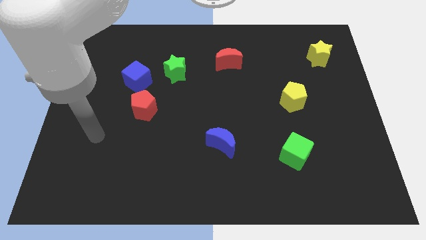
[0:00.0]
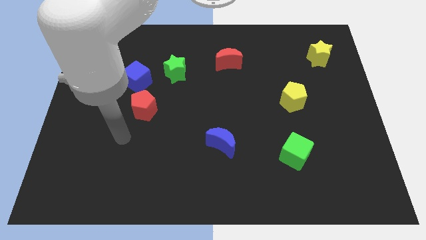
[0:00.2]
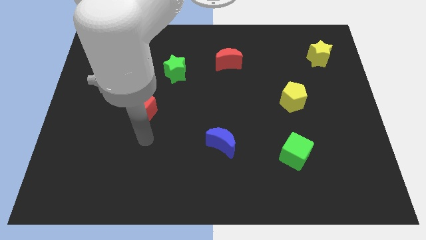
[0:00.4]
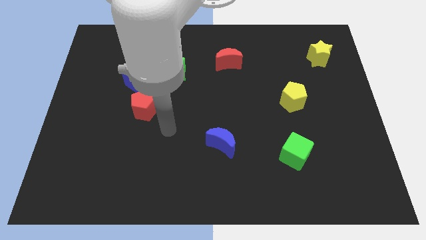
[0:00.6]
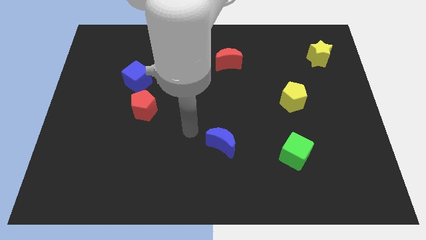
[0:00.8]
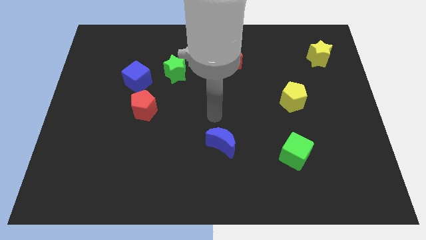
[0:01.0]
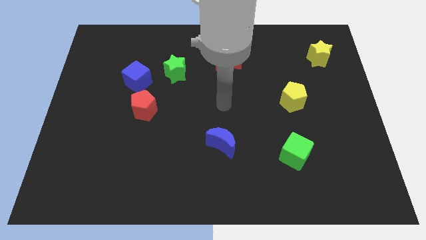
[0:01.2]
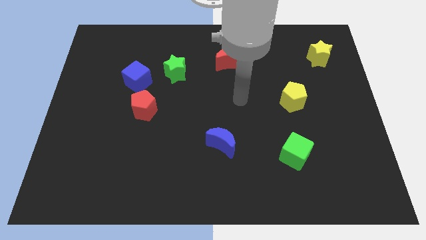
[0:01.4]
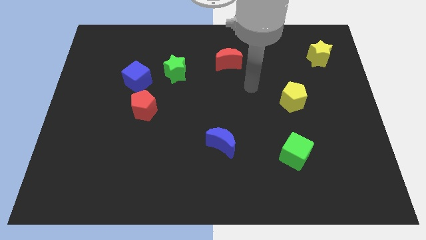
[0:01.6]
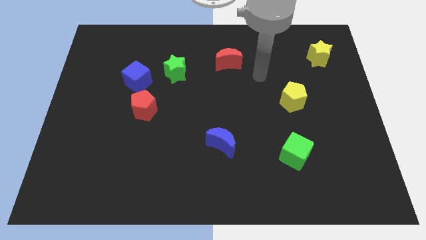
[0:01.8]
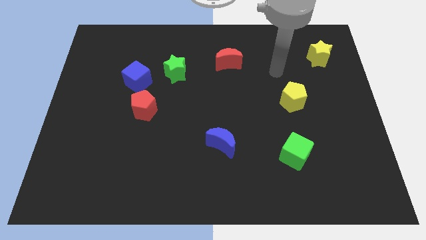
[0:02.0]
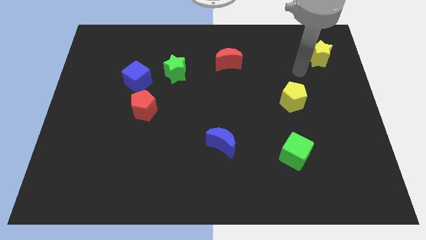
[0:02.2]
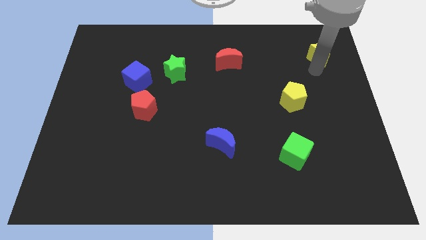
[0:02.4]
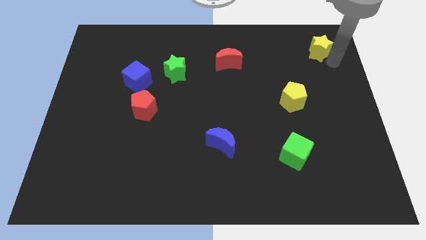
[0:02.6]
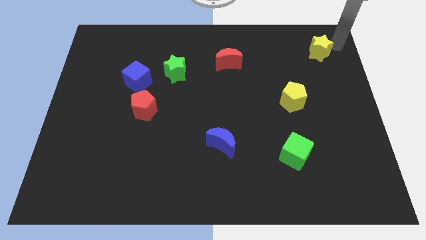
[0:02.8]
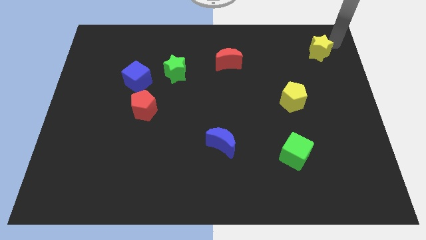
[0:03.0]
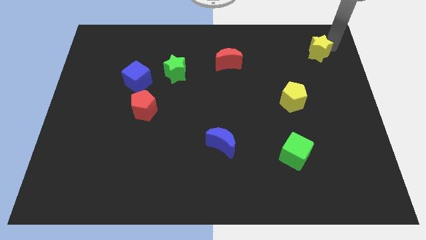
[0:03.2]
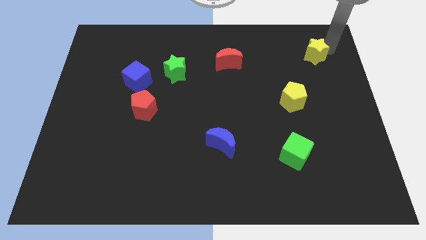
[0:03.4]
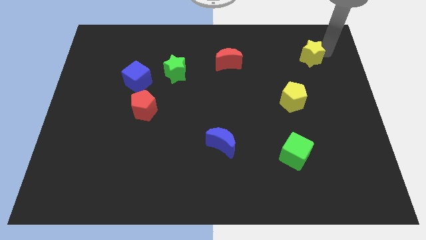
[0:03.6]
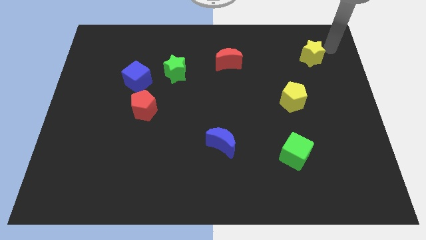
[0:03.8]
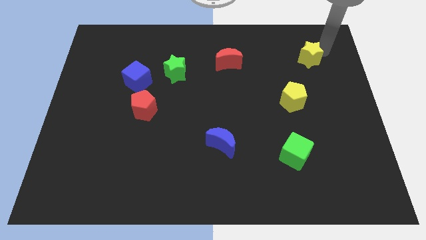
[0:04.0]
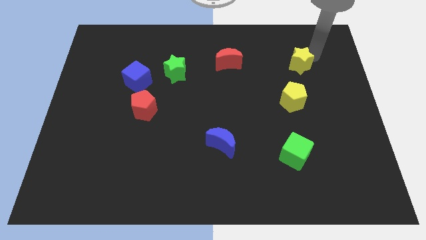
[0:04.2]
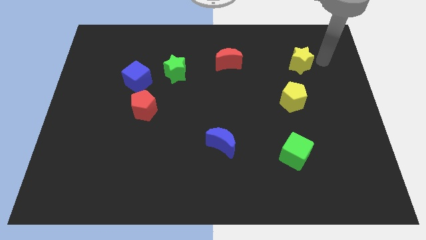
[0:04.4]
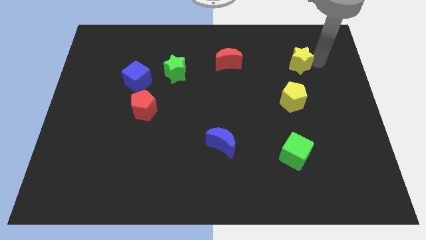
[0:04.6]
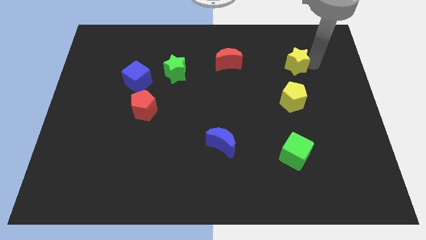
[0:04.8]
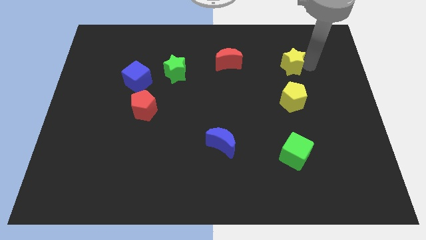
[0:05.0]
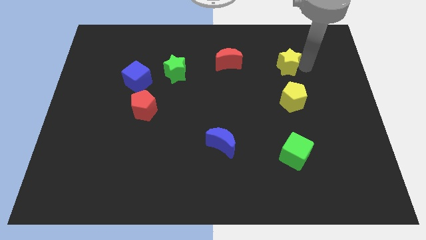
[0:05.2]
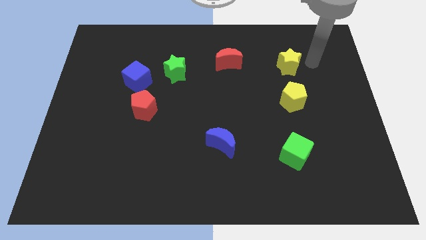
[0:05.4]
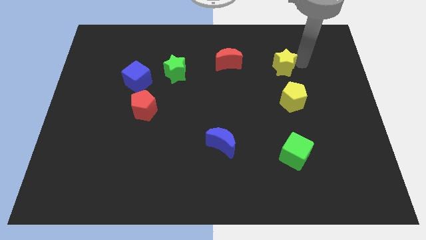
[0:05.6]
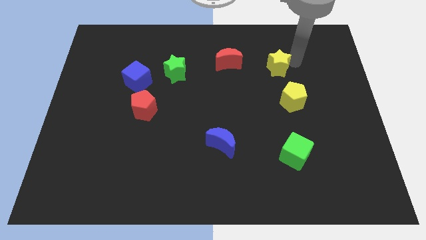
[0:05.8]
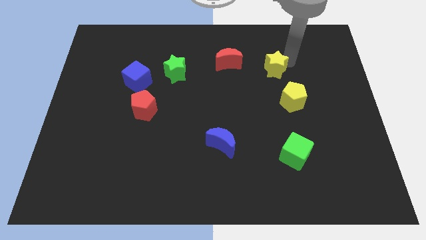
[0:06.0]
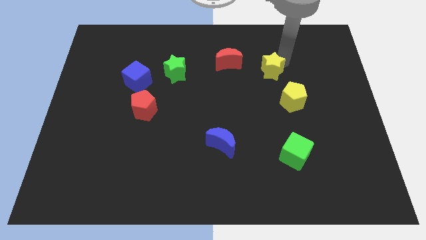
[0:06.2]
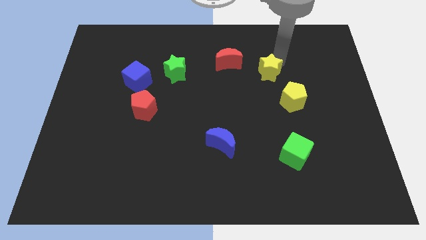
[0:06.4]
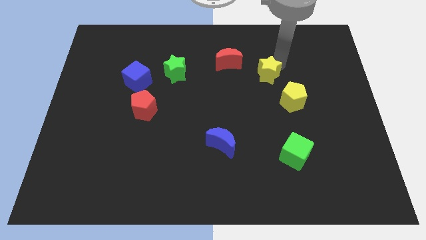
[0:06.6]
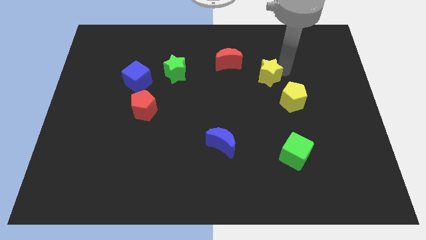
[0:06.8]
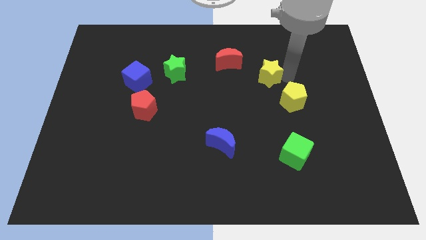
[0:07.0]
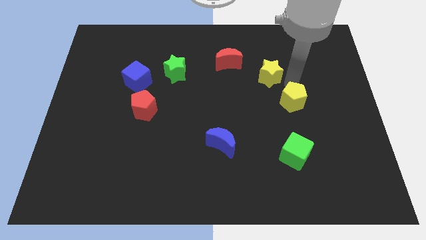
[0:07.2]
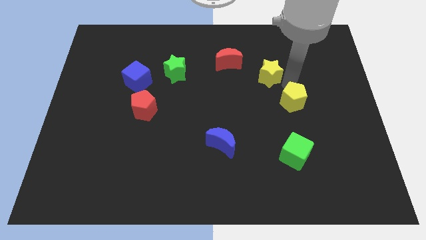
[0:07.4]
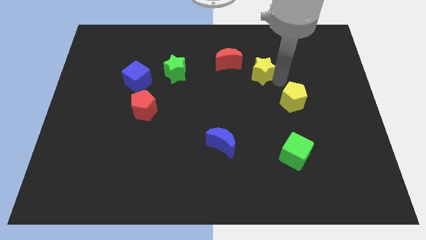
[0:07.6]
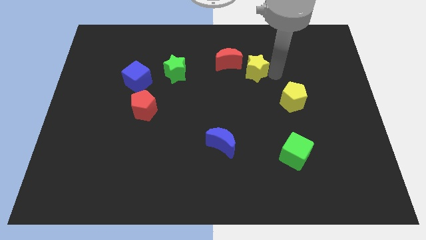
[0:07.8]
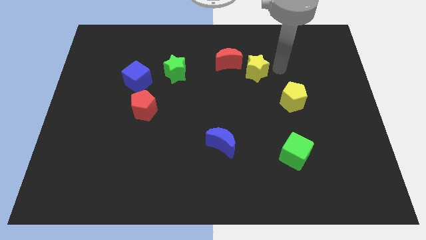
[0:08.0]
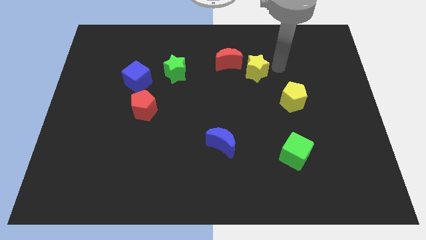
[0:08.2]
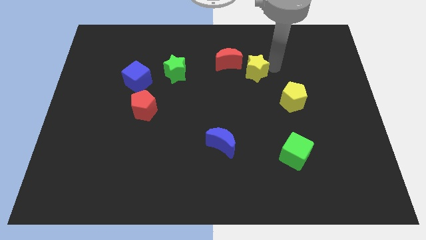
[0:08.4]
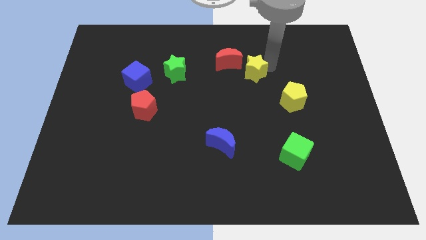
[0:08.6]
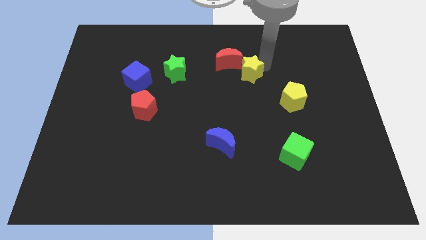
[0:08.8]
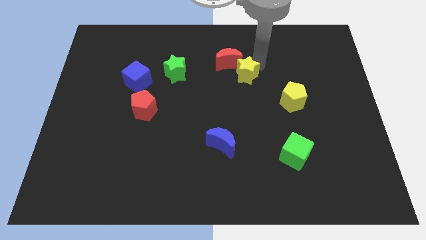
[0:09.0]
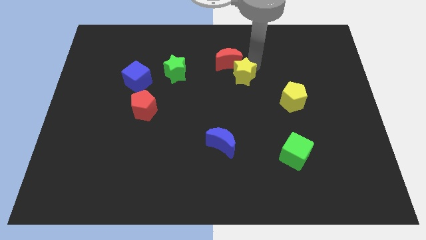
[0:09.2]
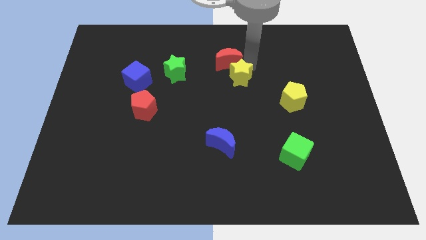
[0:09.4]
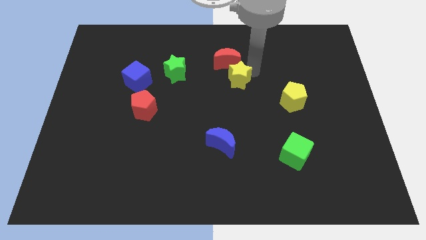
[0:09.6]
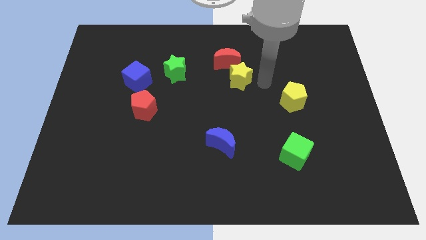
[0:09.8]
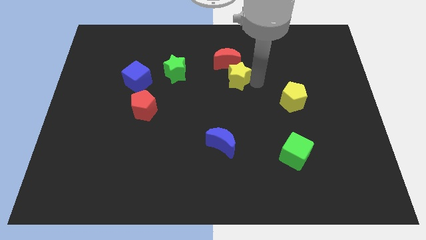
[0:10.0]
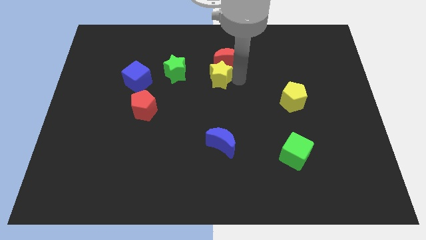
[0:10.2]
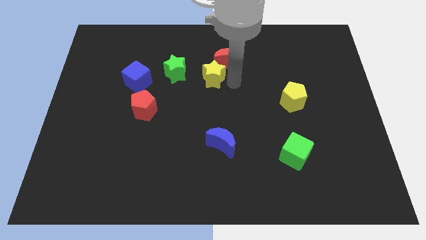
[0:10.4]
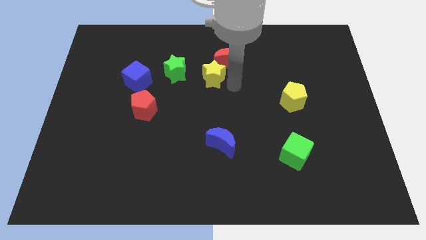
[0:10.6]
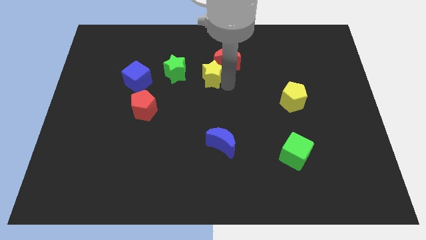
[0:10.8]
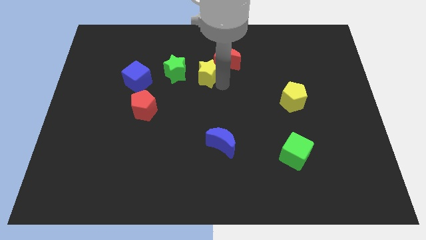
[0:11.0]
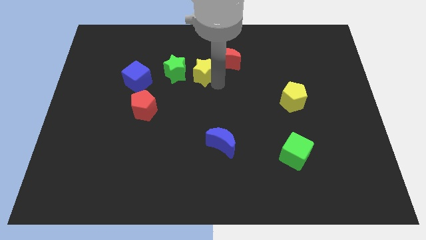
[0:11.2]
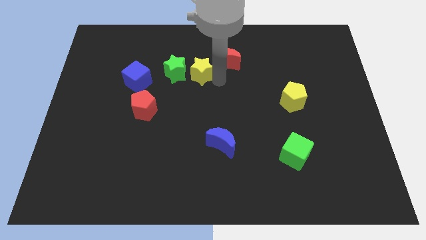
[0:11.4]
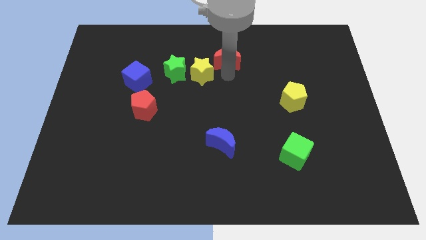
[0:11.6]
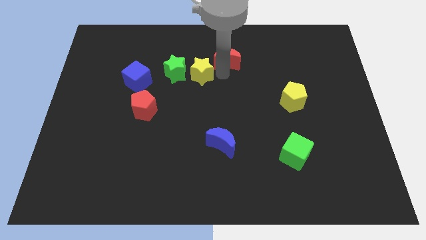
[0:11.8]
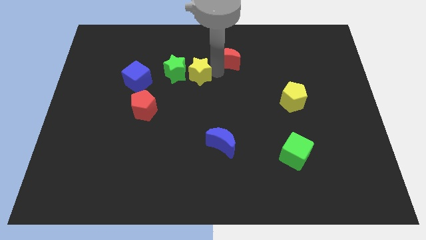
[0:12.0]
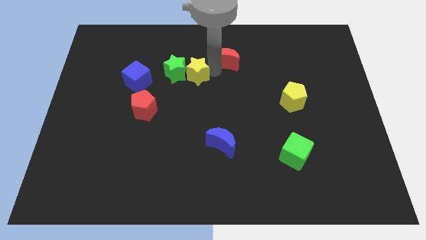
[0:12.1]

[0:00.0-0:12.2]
move the yellow star to the green star

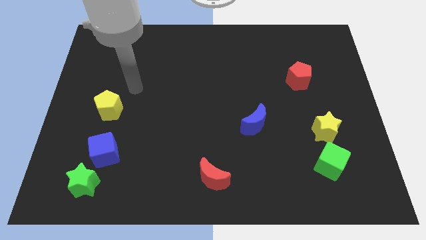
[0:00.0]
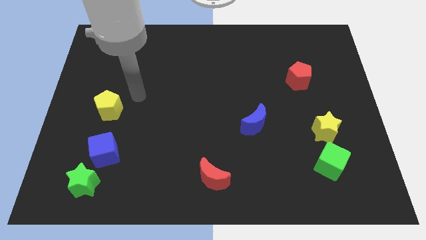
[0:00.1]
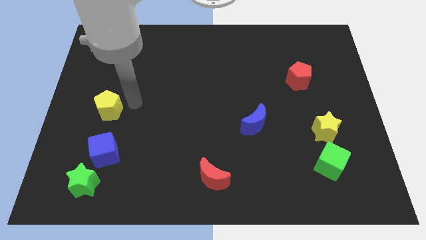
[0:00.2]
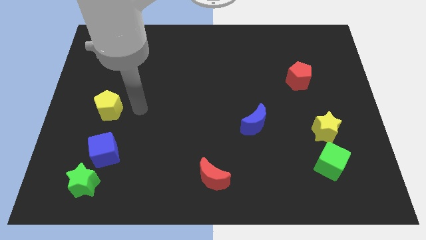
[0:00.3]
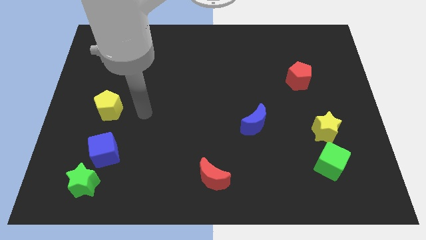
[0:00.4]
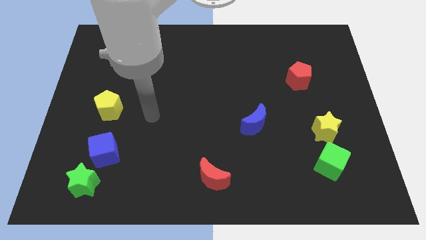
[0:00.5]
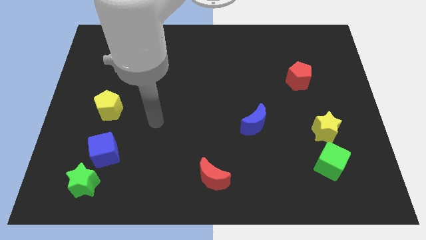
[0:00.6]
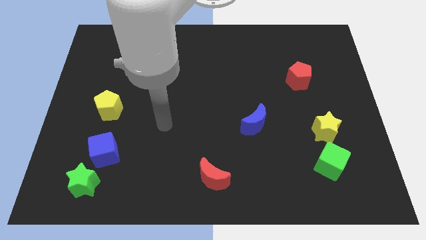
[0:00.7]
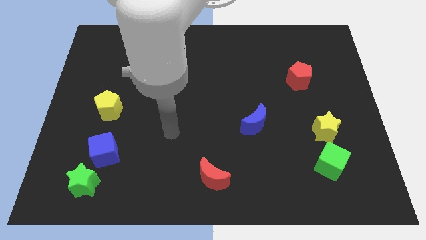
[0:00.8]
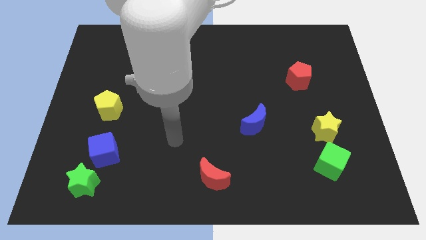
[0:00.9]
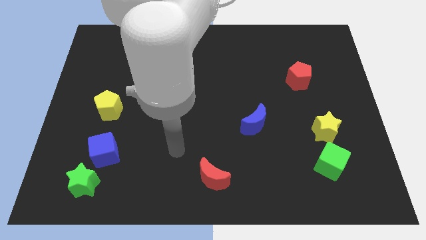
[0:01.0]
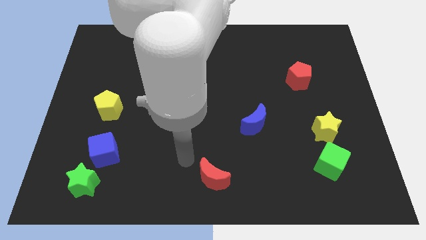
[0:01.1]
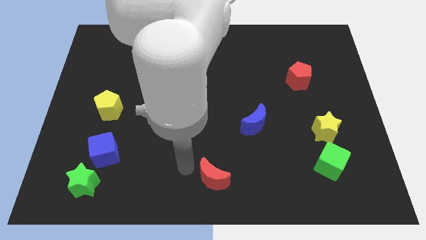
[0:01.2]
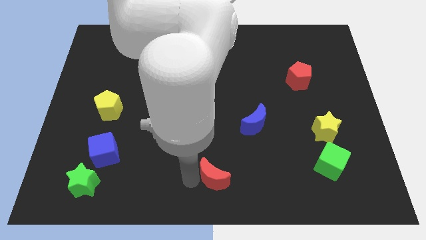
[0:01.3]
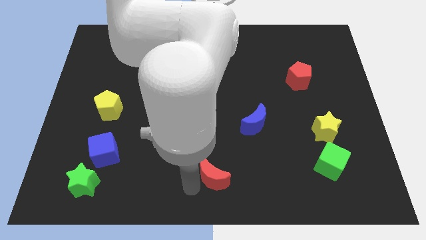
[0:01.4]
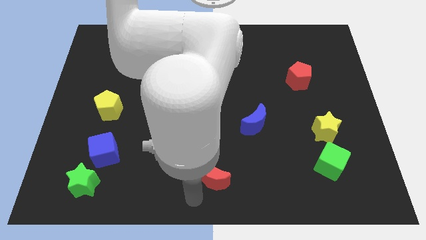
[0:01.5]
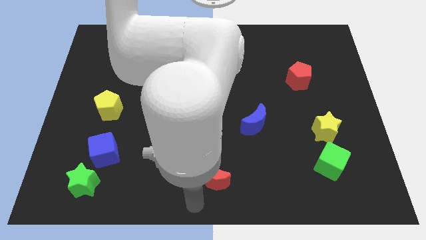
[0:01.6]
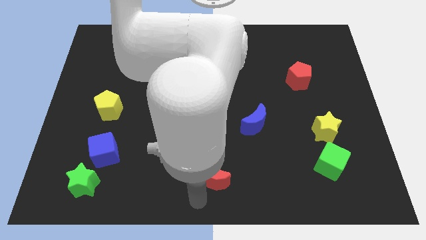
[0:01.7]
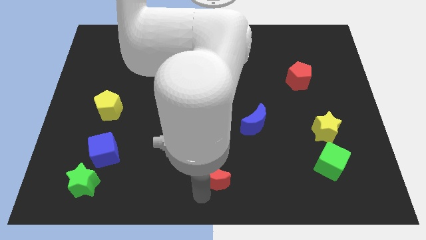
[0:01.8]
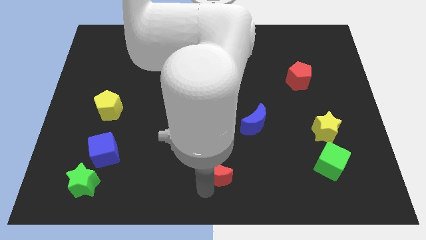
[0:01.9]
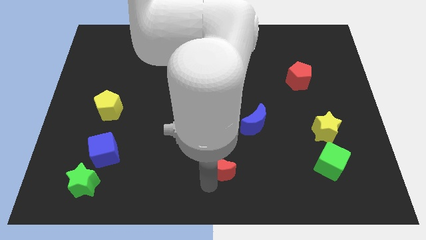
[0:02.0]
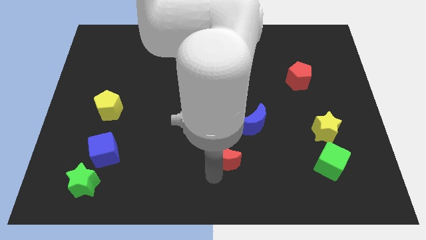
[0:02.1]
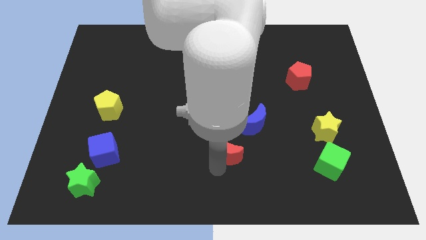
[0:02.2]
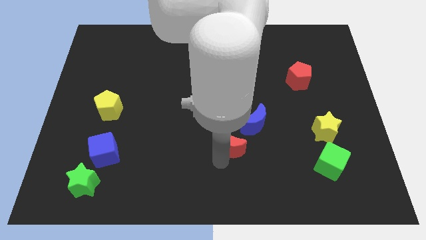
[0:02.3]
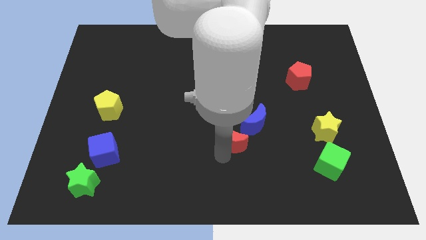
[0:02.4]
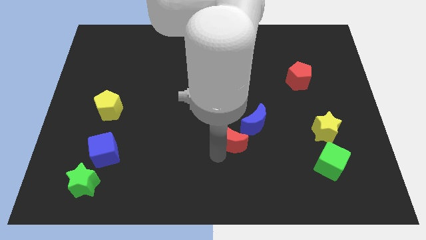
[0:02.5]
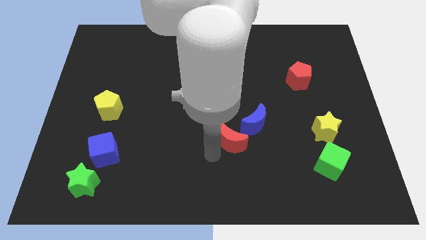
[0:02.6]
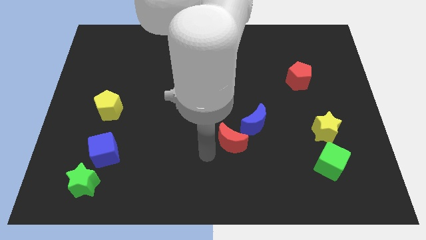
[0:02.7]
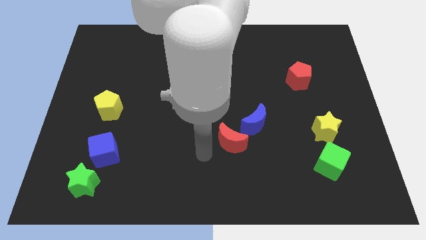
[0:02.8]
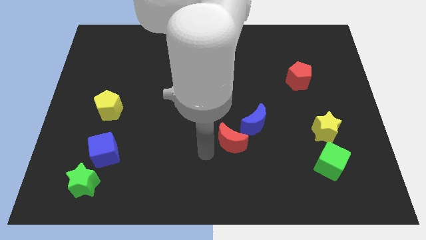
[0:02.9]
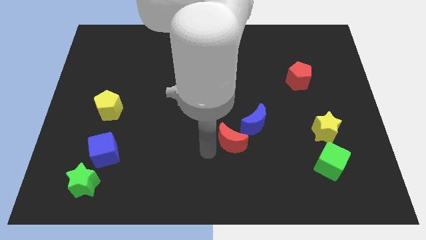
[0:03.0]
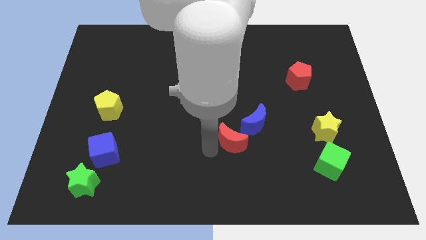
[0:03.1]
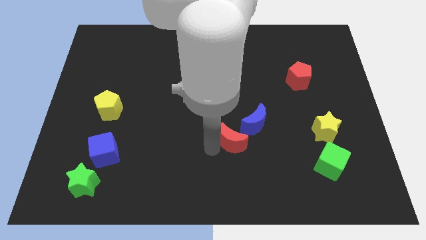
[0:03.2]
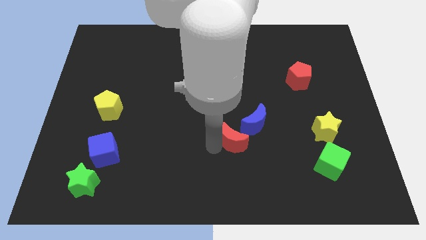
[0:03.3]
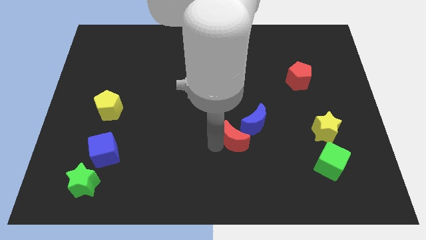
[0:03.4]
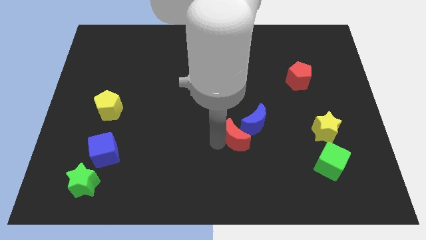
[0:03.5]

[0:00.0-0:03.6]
slide the red moon to the blue moon
